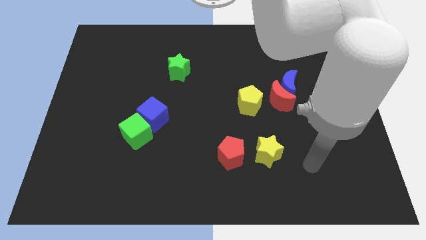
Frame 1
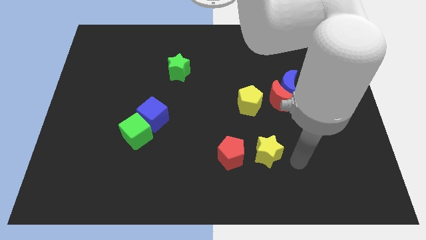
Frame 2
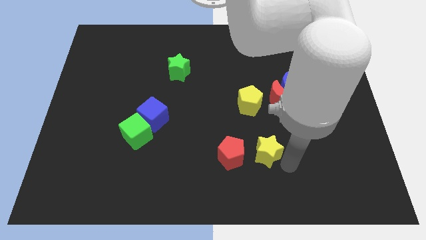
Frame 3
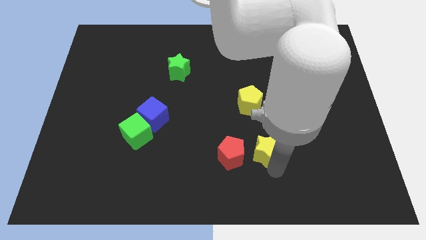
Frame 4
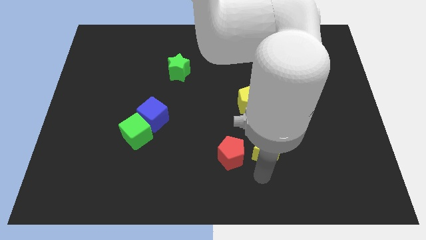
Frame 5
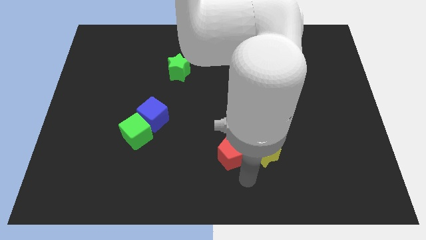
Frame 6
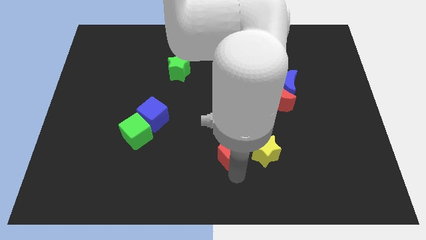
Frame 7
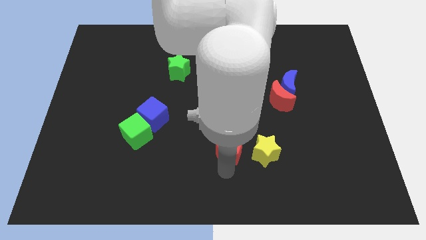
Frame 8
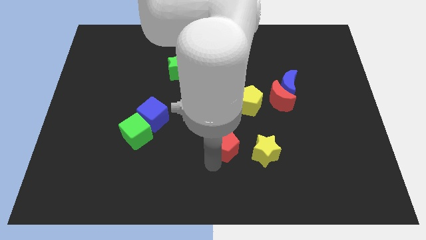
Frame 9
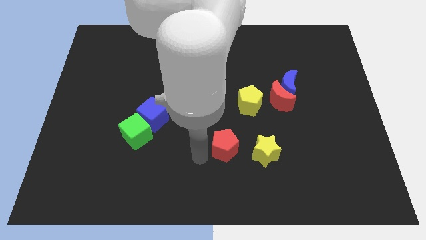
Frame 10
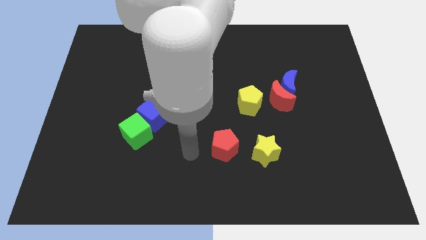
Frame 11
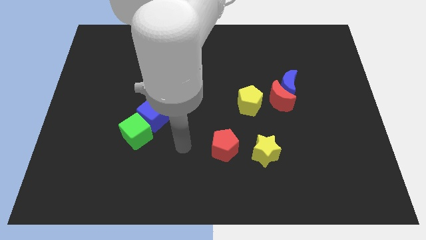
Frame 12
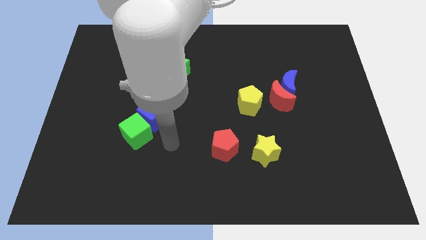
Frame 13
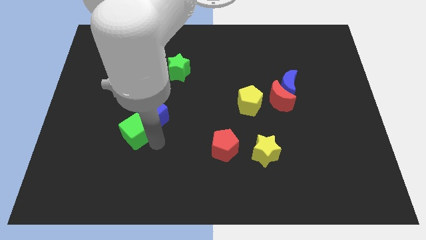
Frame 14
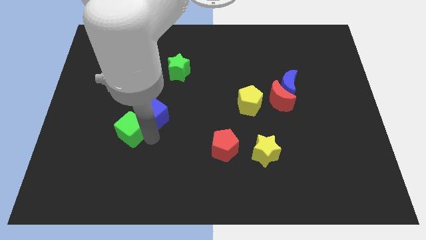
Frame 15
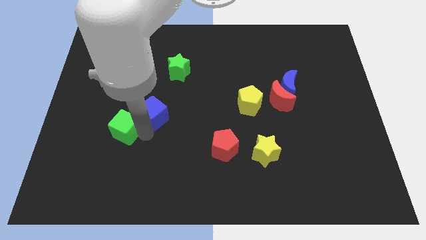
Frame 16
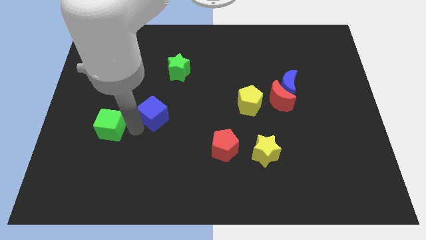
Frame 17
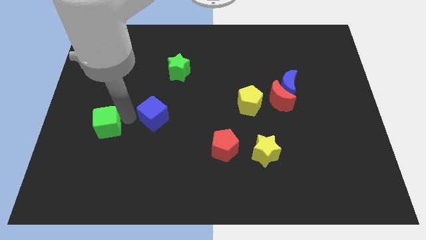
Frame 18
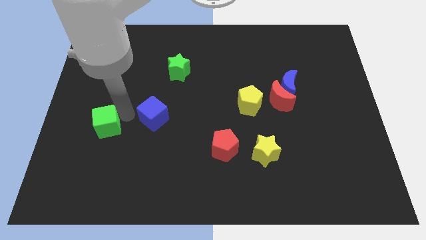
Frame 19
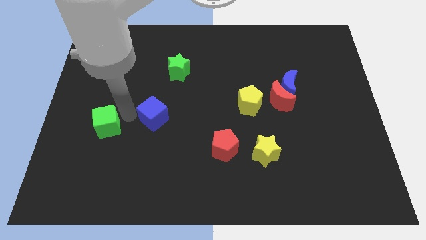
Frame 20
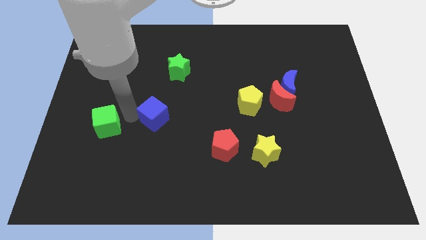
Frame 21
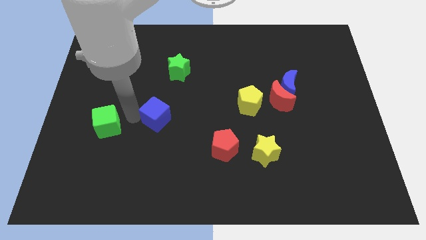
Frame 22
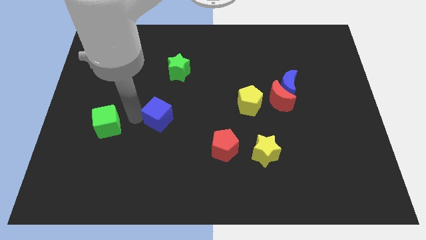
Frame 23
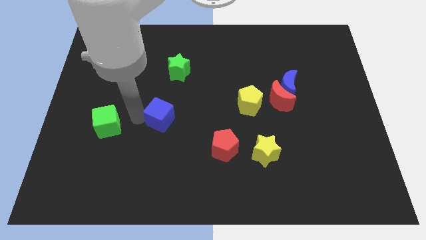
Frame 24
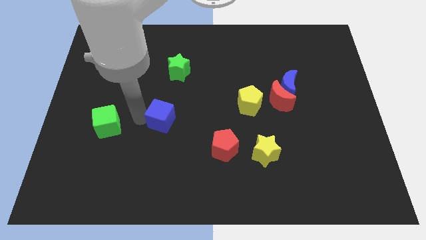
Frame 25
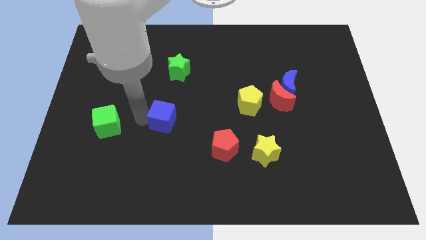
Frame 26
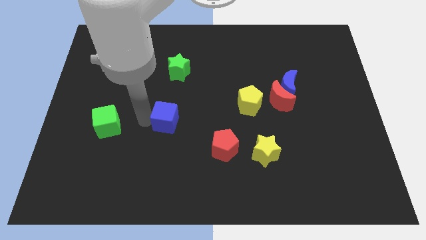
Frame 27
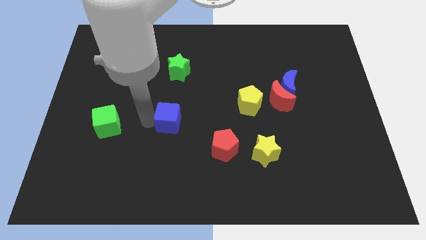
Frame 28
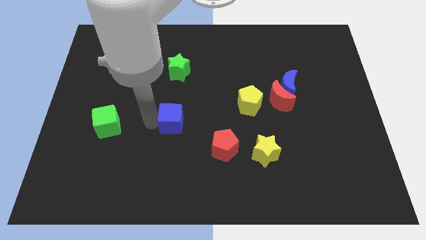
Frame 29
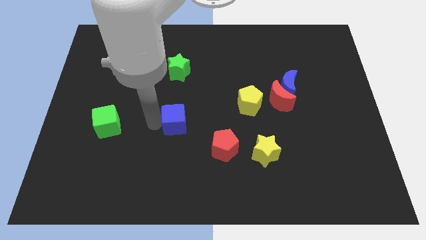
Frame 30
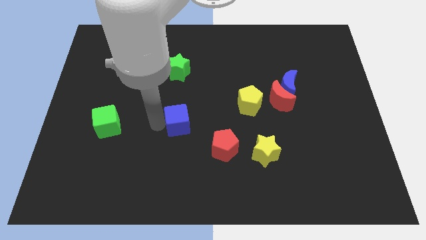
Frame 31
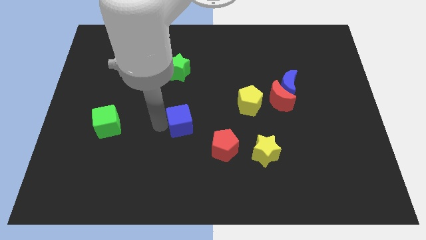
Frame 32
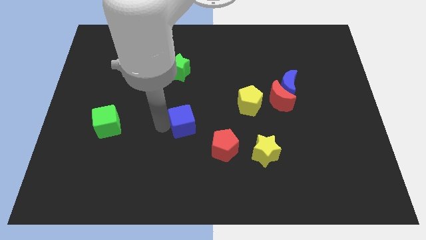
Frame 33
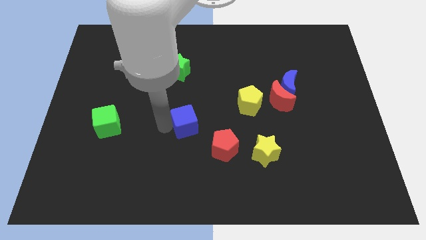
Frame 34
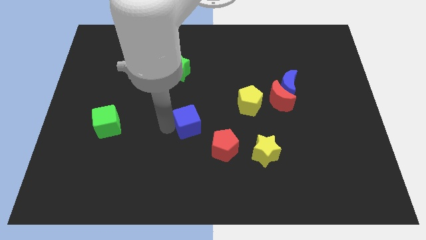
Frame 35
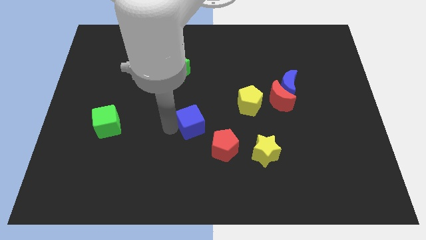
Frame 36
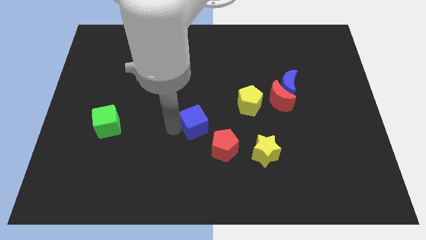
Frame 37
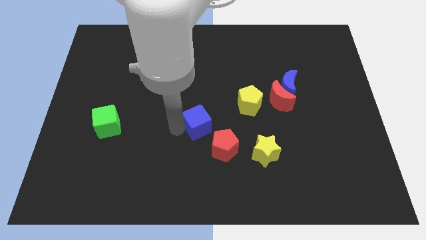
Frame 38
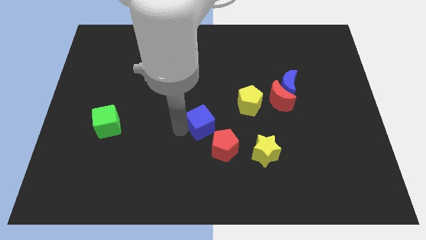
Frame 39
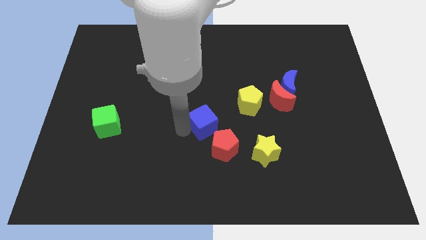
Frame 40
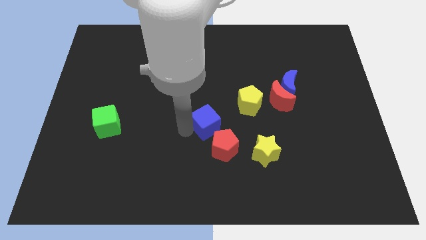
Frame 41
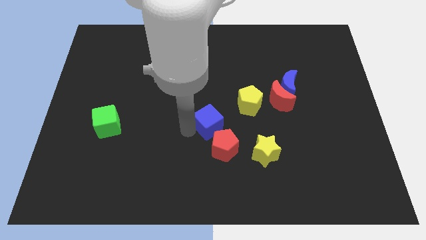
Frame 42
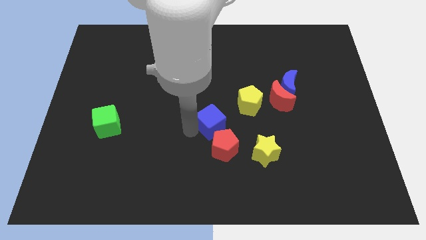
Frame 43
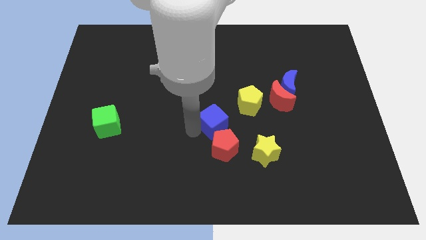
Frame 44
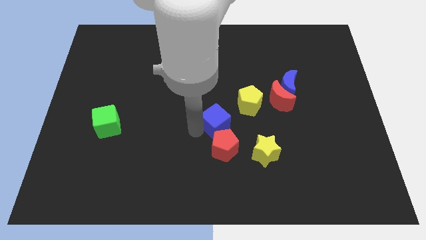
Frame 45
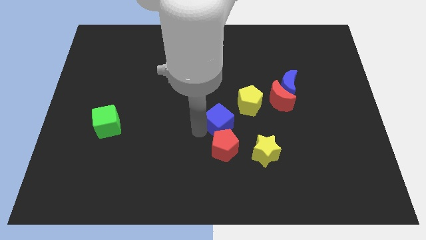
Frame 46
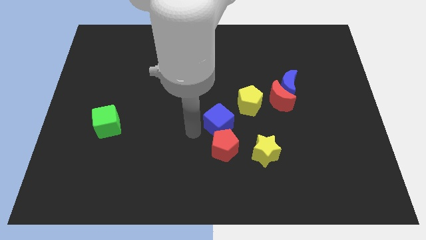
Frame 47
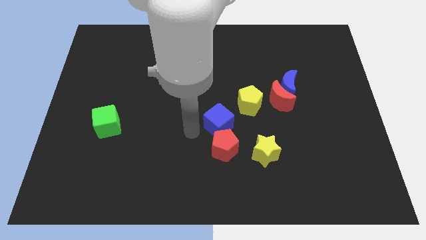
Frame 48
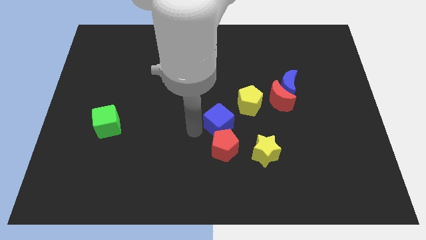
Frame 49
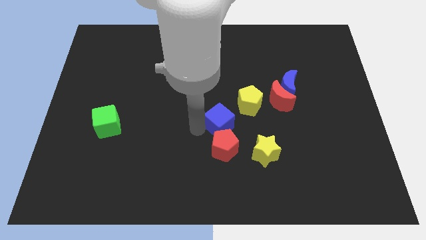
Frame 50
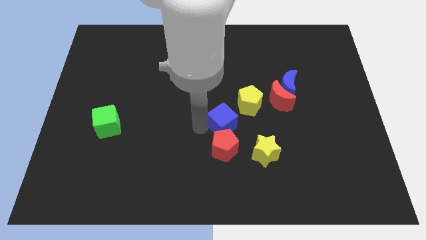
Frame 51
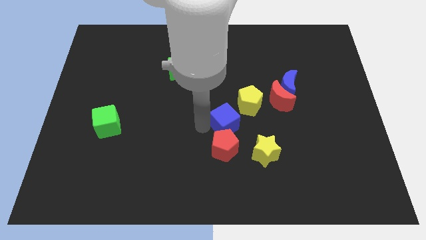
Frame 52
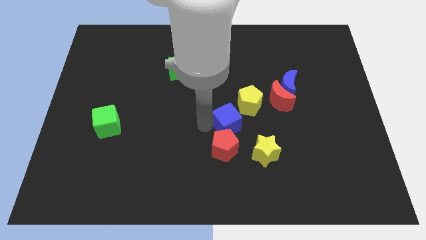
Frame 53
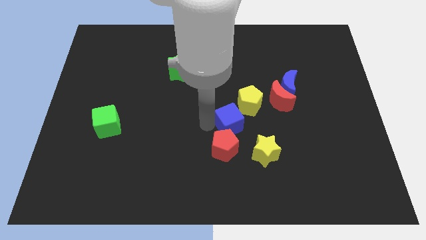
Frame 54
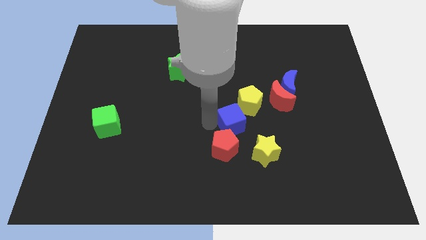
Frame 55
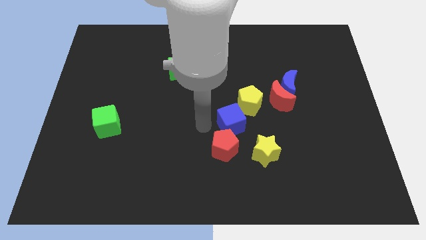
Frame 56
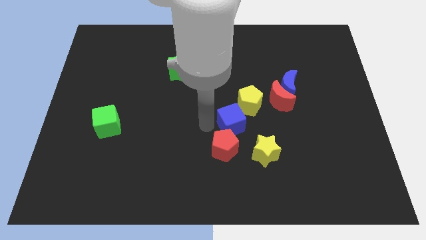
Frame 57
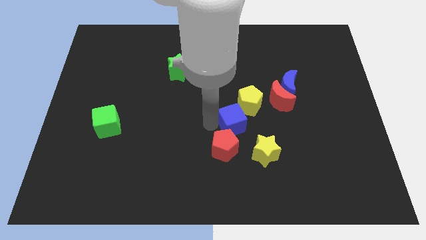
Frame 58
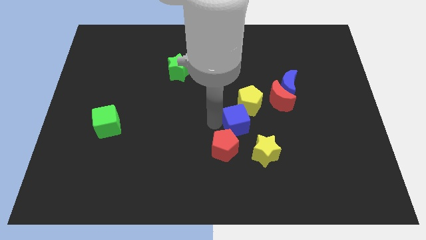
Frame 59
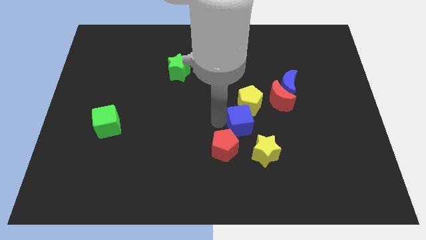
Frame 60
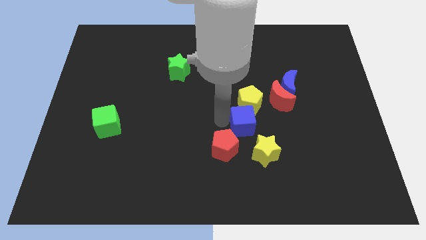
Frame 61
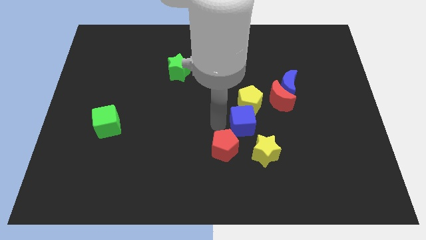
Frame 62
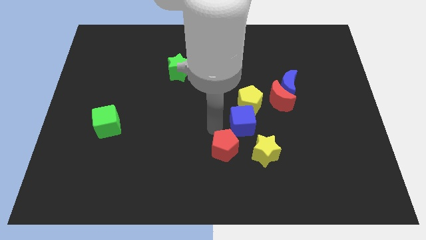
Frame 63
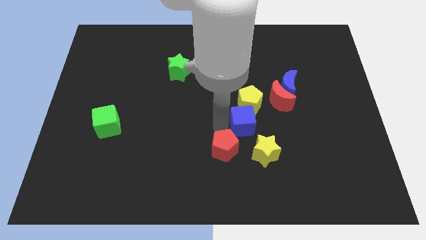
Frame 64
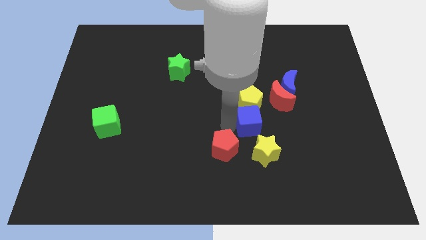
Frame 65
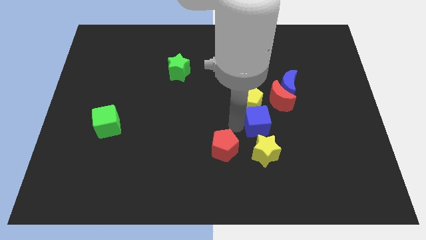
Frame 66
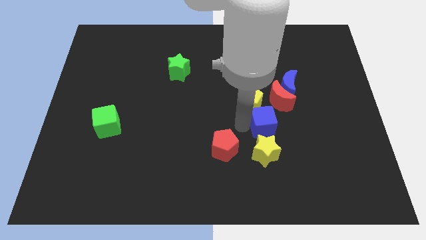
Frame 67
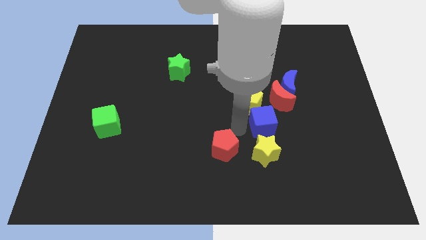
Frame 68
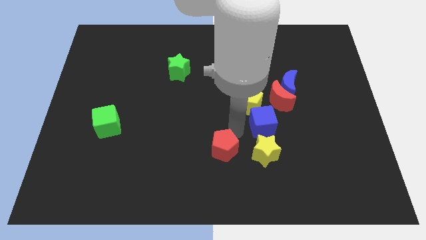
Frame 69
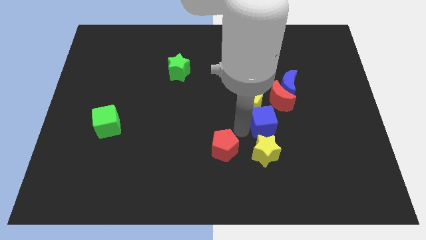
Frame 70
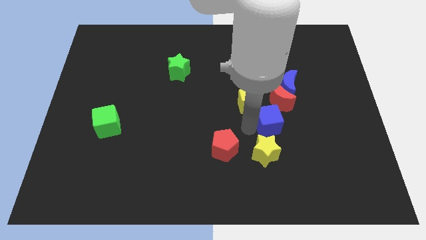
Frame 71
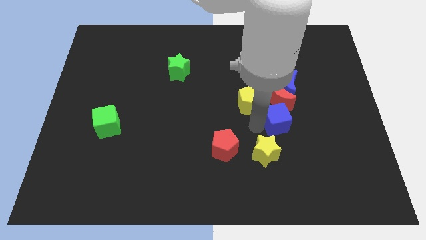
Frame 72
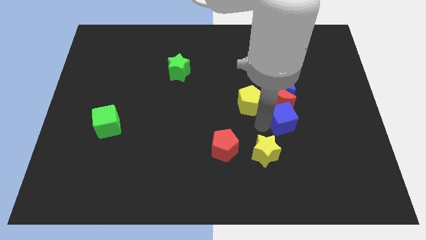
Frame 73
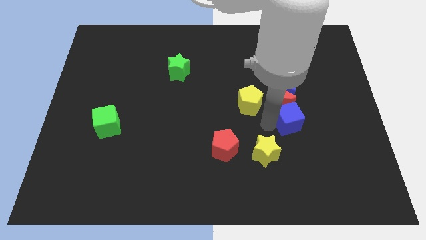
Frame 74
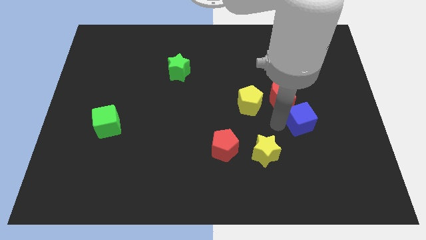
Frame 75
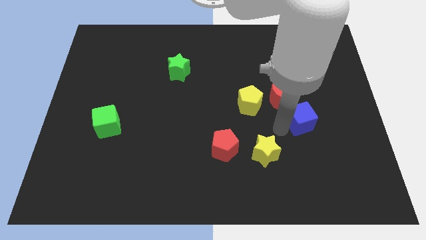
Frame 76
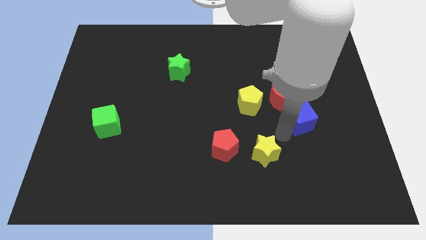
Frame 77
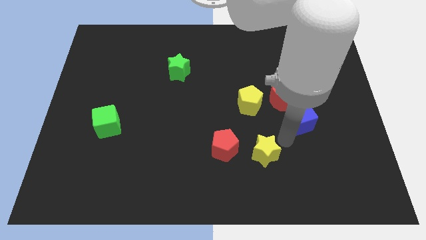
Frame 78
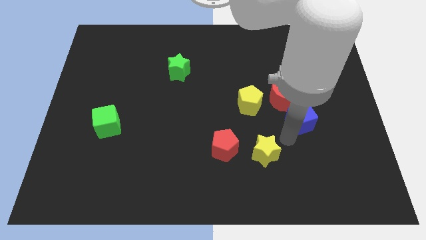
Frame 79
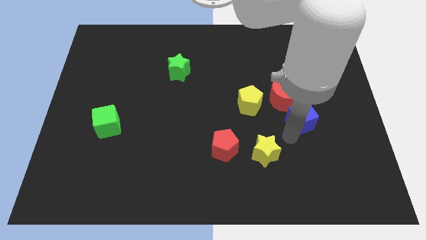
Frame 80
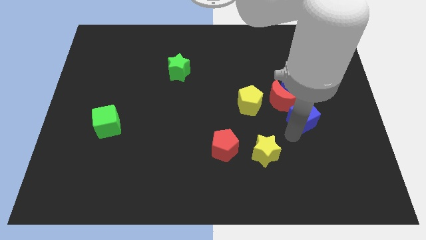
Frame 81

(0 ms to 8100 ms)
slide the blue cube to the bottom right of the blue moon
